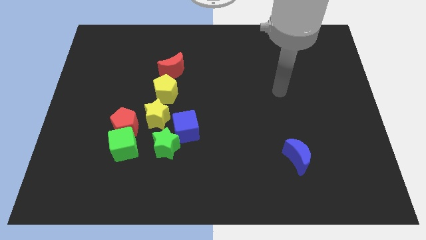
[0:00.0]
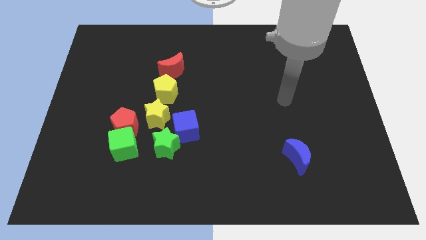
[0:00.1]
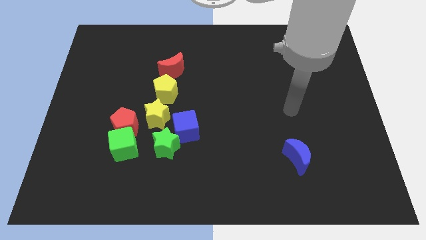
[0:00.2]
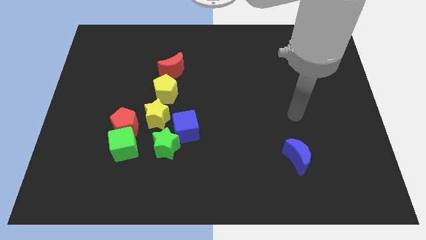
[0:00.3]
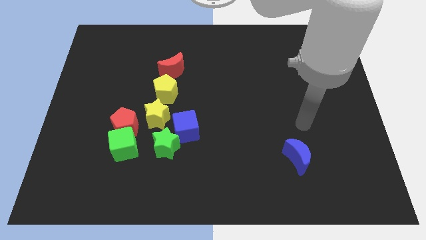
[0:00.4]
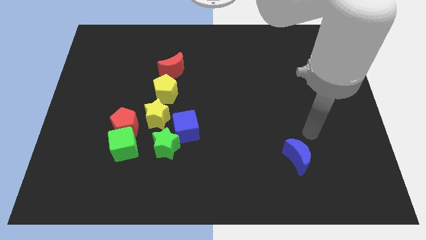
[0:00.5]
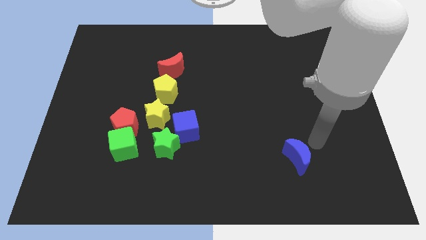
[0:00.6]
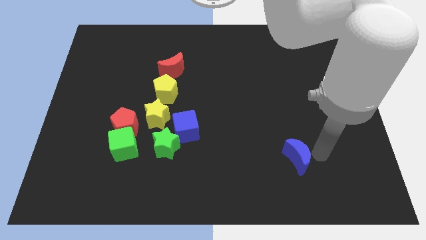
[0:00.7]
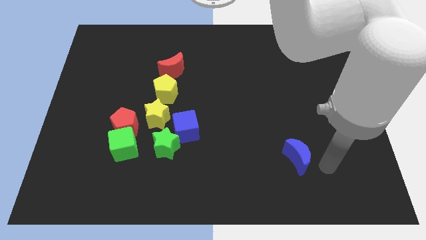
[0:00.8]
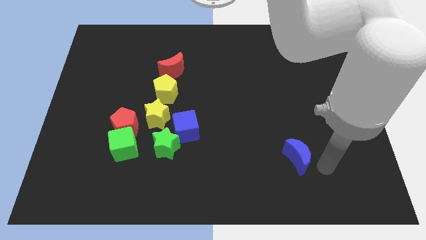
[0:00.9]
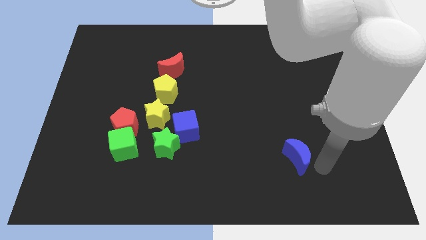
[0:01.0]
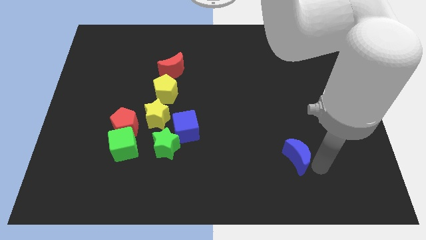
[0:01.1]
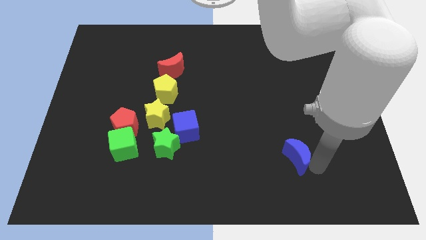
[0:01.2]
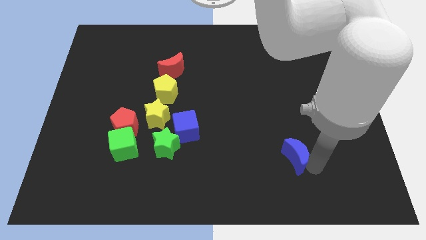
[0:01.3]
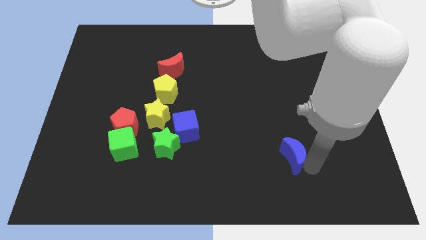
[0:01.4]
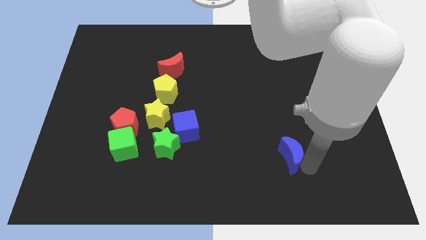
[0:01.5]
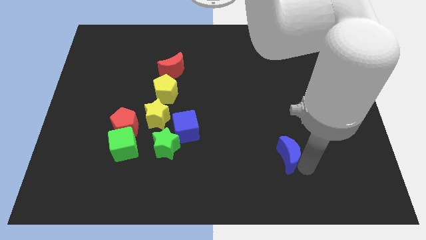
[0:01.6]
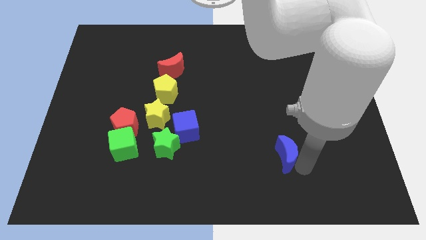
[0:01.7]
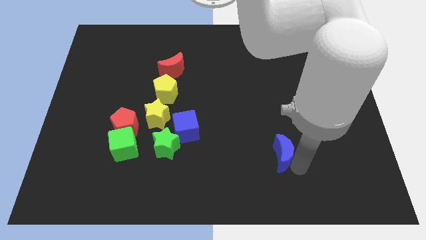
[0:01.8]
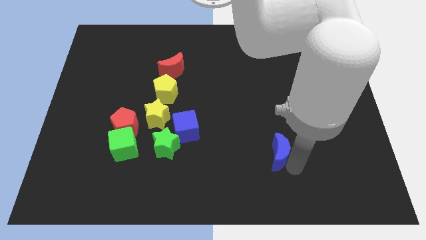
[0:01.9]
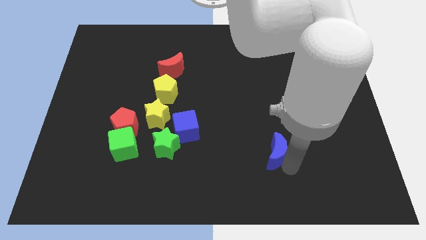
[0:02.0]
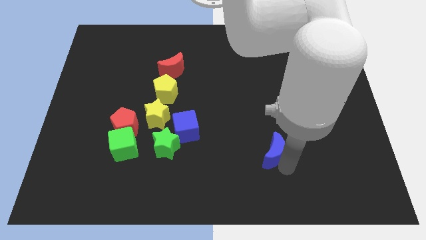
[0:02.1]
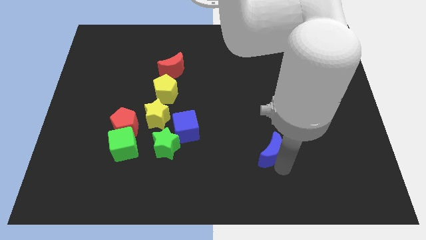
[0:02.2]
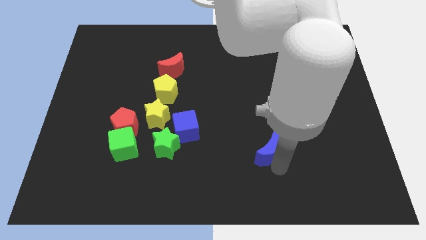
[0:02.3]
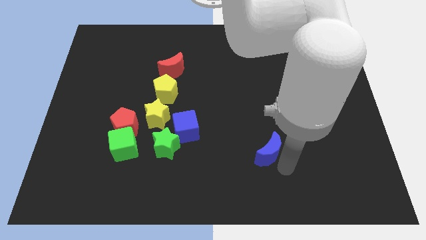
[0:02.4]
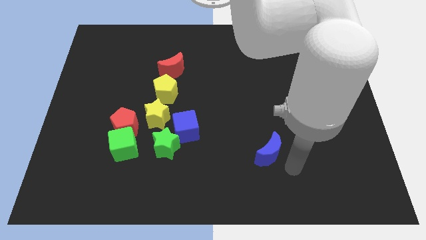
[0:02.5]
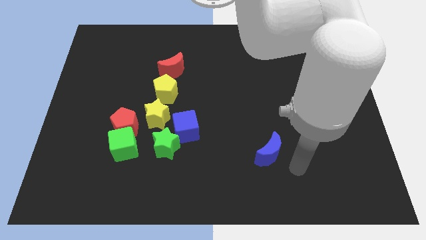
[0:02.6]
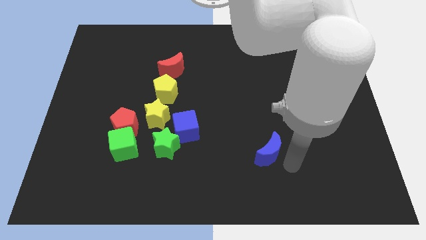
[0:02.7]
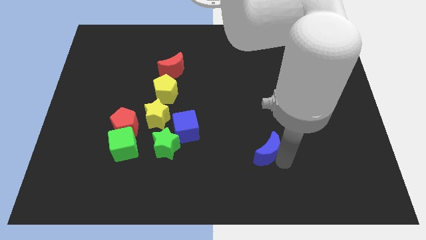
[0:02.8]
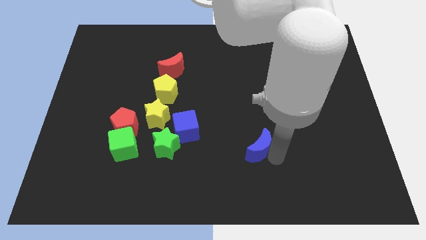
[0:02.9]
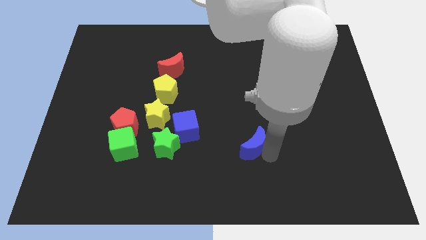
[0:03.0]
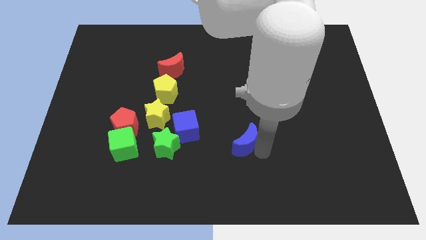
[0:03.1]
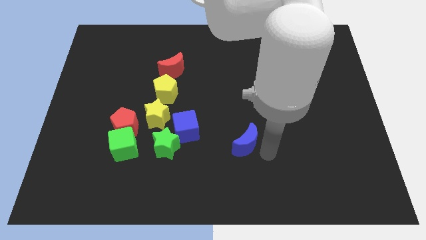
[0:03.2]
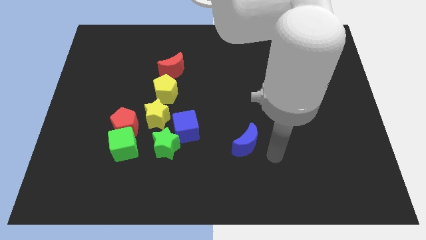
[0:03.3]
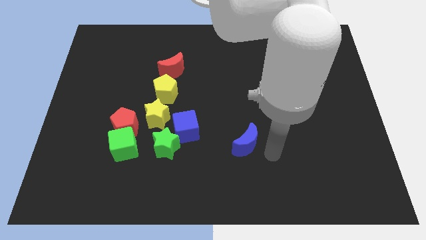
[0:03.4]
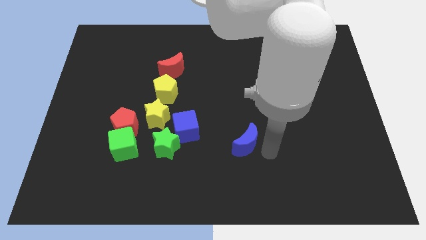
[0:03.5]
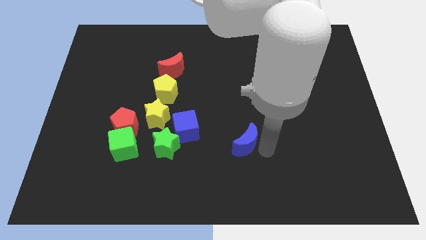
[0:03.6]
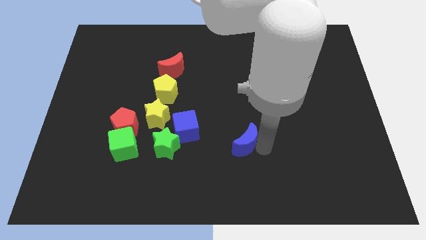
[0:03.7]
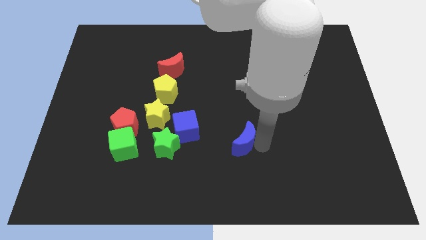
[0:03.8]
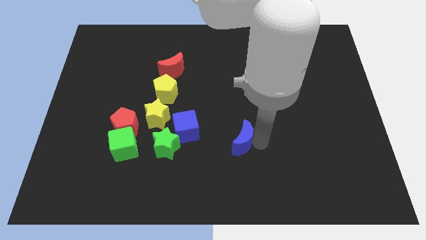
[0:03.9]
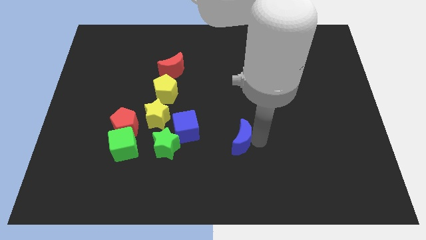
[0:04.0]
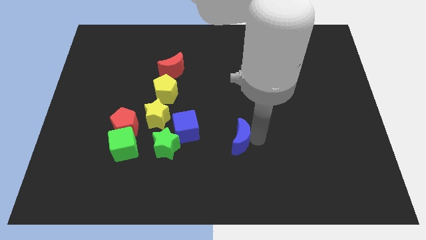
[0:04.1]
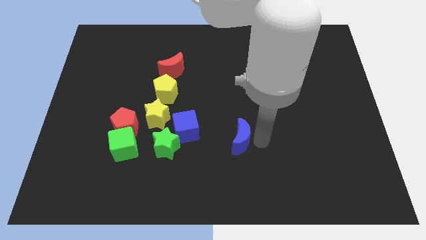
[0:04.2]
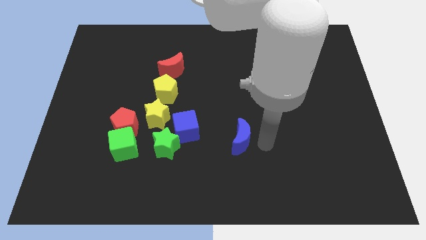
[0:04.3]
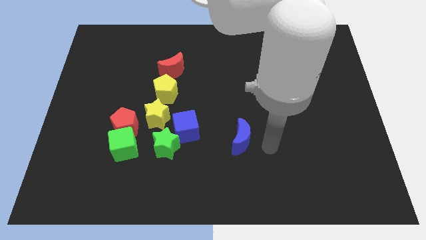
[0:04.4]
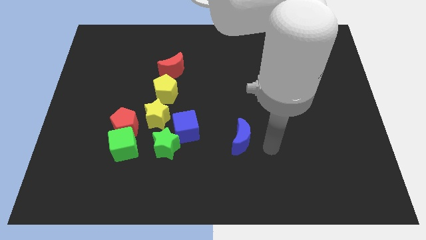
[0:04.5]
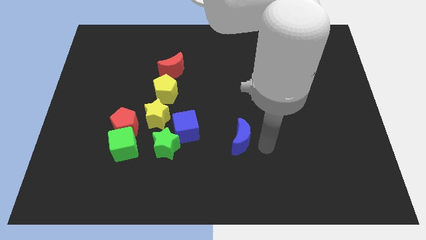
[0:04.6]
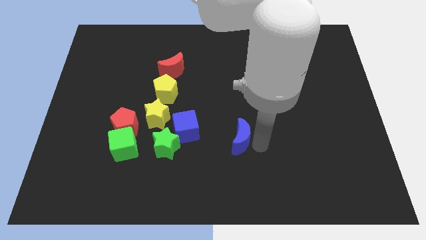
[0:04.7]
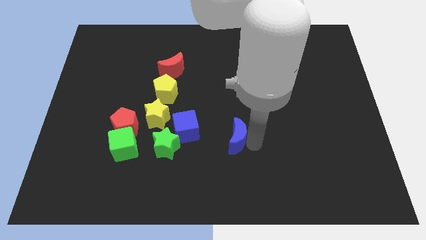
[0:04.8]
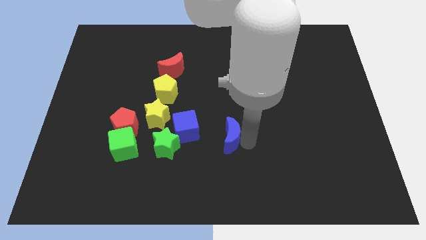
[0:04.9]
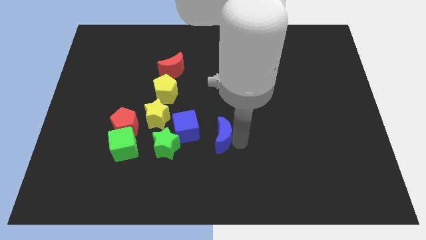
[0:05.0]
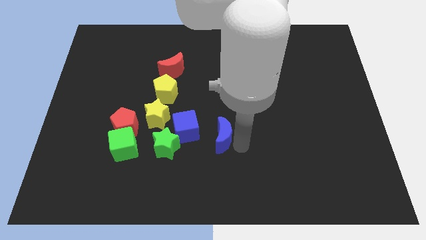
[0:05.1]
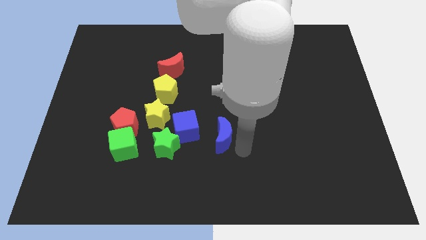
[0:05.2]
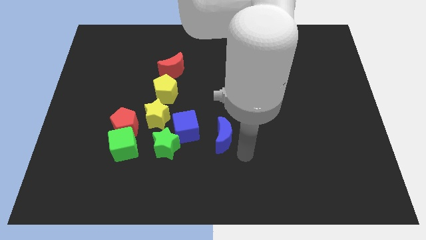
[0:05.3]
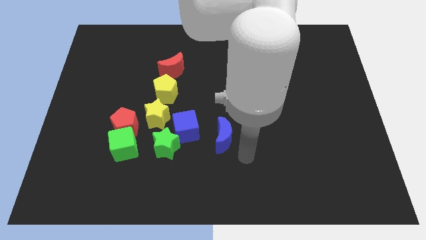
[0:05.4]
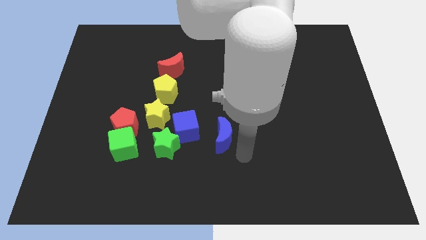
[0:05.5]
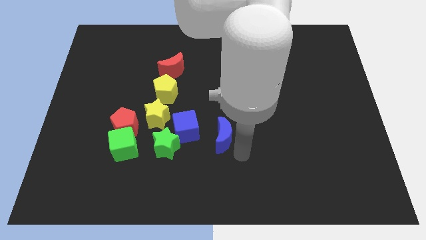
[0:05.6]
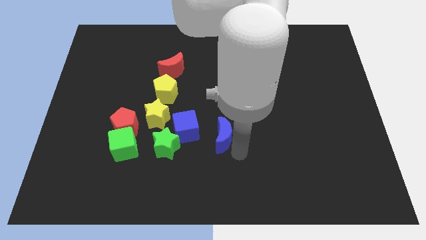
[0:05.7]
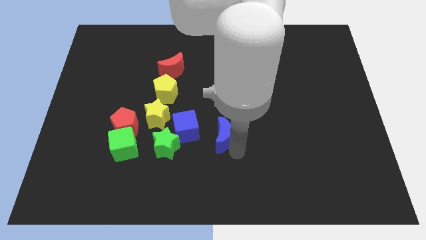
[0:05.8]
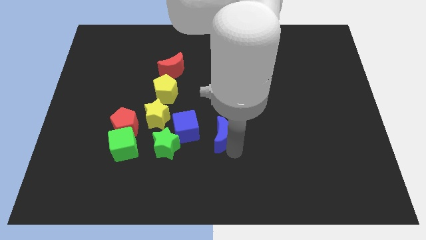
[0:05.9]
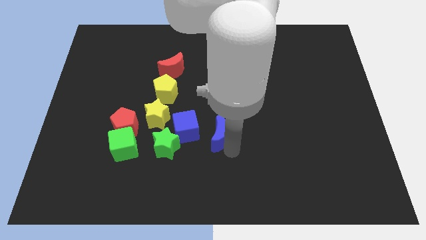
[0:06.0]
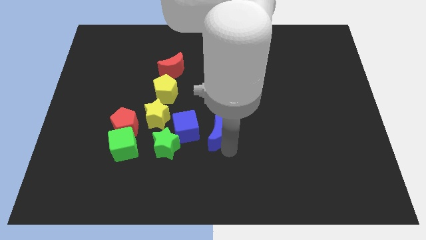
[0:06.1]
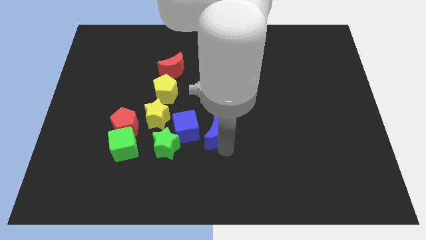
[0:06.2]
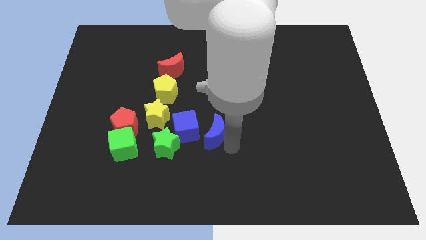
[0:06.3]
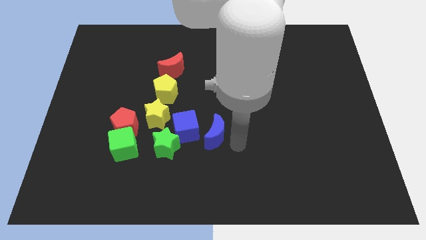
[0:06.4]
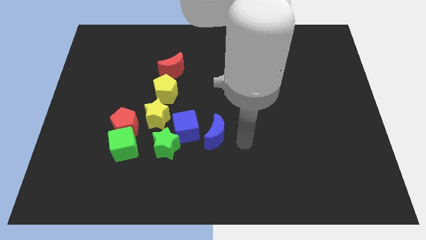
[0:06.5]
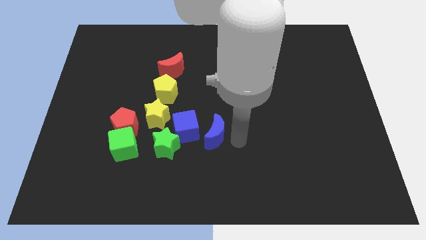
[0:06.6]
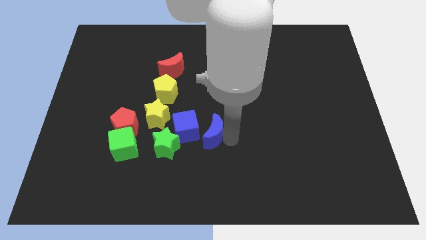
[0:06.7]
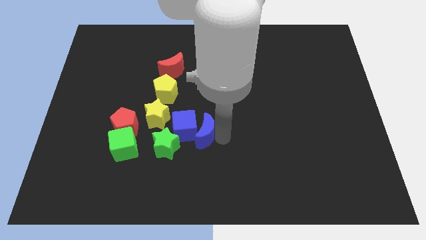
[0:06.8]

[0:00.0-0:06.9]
slide the blue moon towards the blue cube

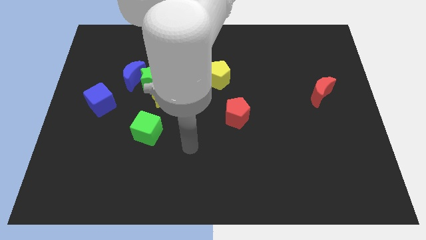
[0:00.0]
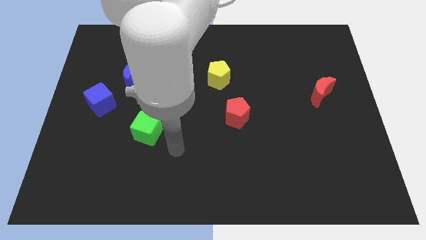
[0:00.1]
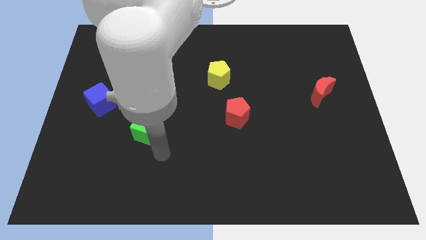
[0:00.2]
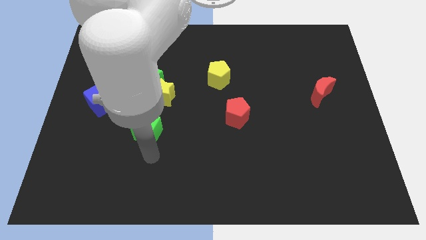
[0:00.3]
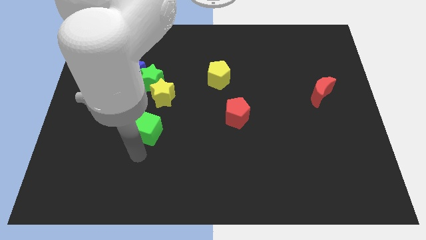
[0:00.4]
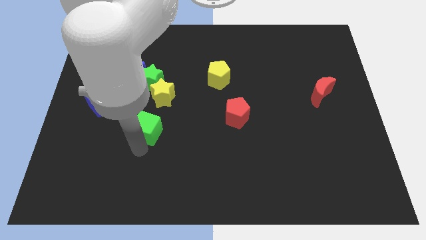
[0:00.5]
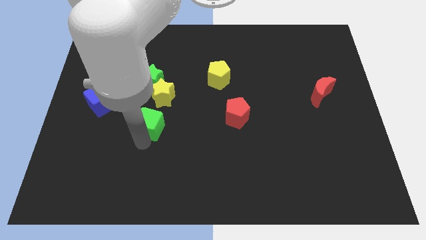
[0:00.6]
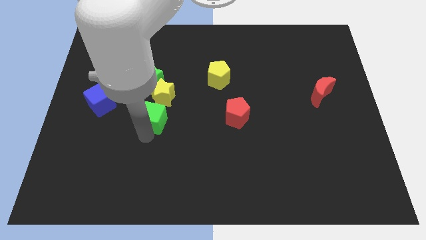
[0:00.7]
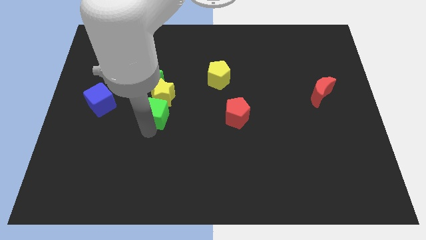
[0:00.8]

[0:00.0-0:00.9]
push the green cube close to the yellow star
